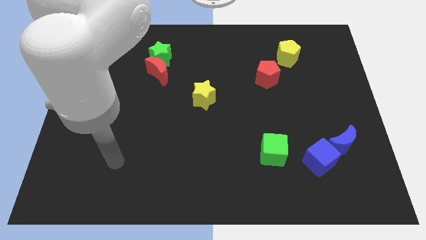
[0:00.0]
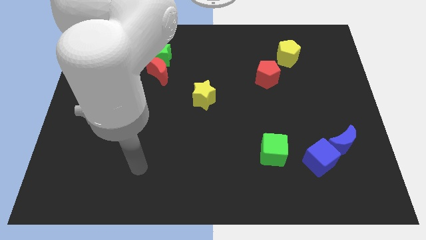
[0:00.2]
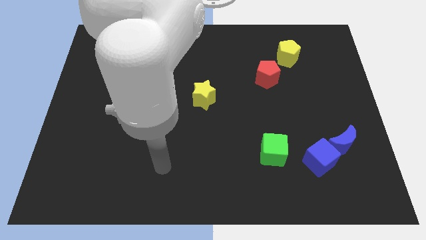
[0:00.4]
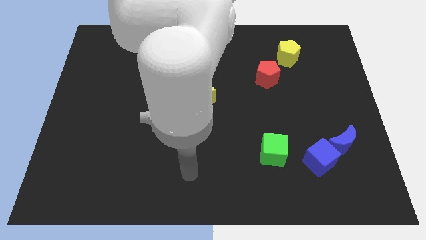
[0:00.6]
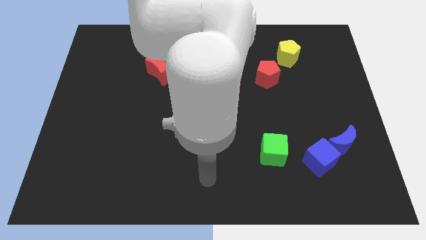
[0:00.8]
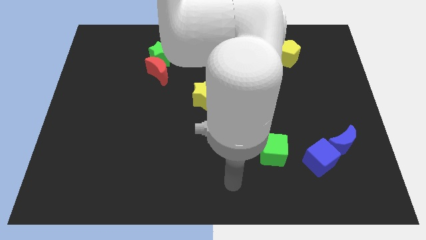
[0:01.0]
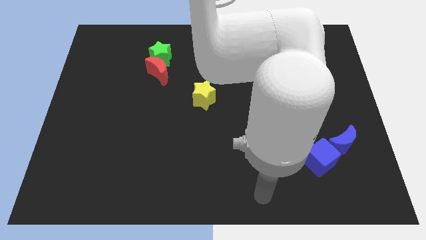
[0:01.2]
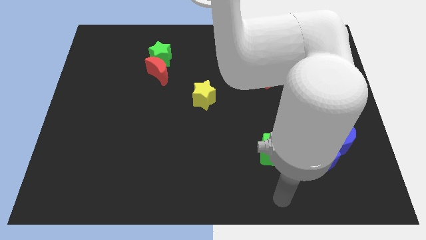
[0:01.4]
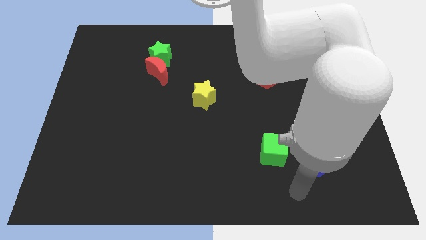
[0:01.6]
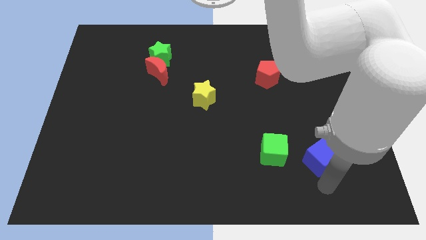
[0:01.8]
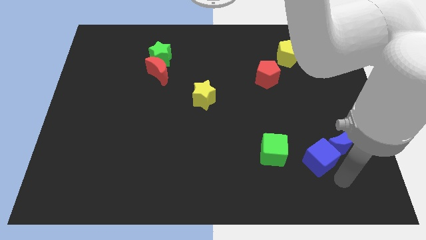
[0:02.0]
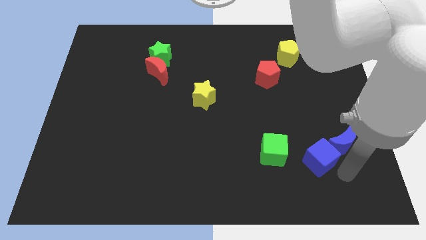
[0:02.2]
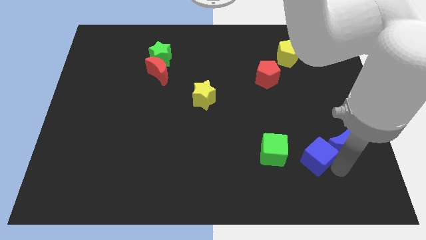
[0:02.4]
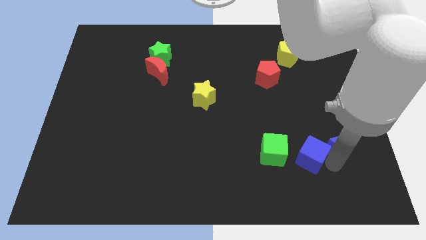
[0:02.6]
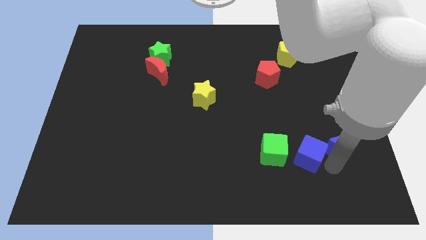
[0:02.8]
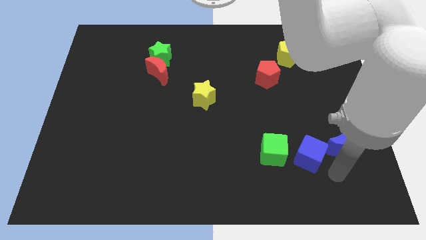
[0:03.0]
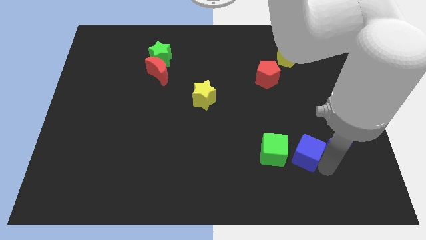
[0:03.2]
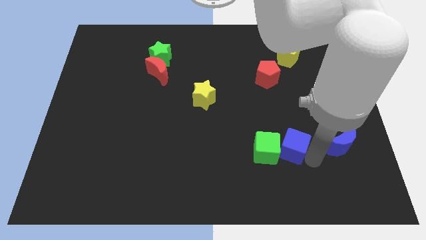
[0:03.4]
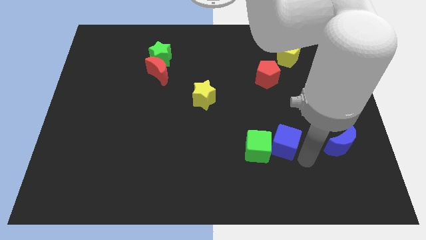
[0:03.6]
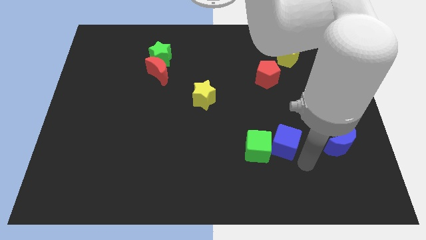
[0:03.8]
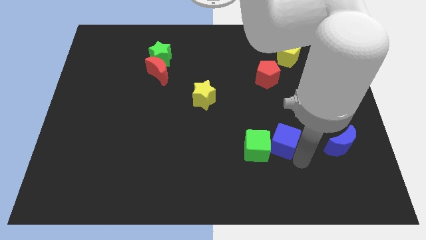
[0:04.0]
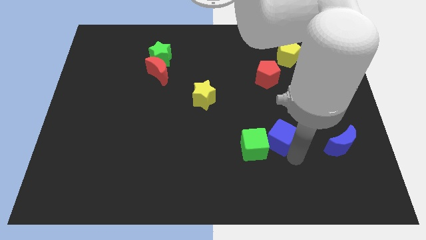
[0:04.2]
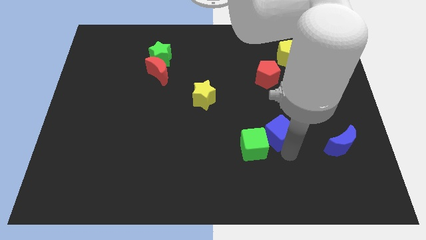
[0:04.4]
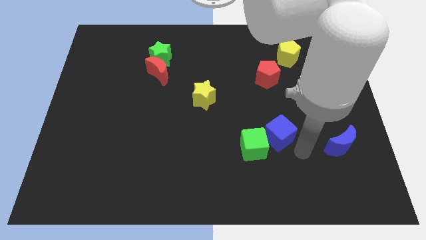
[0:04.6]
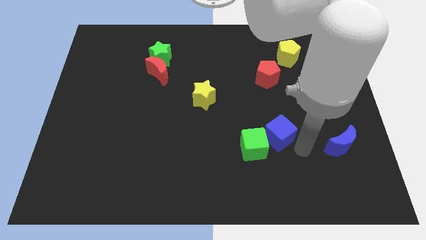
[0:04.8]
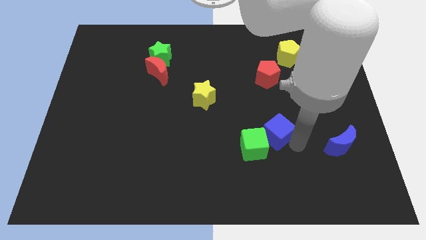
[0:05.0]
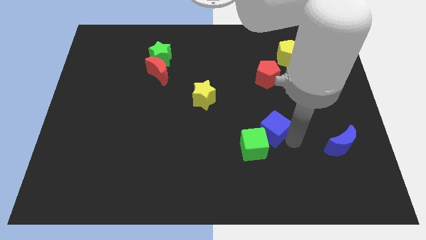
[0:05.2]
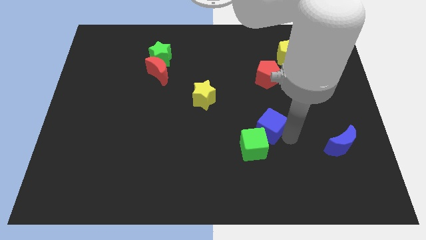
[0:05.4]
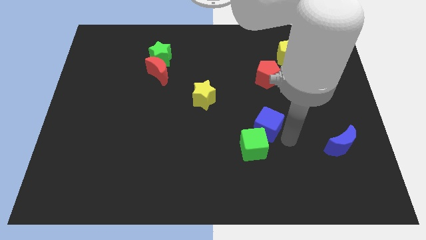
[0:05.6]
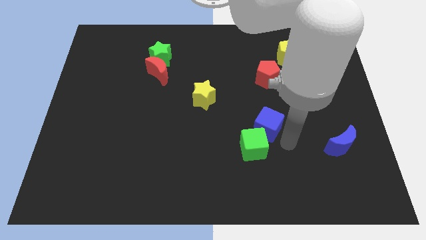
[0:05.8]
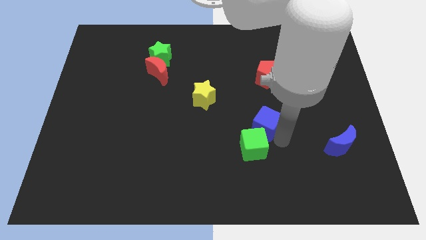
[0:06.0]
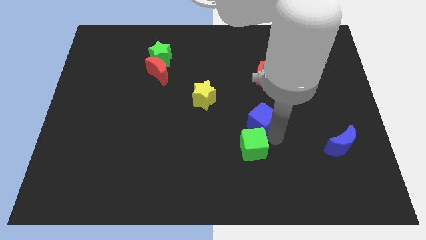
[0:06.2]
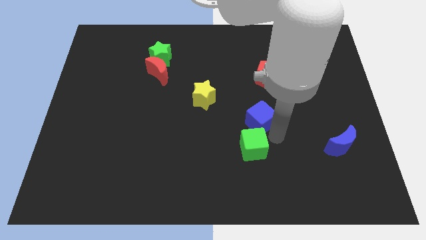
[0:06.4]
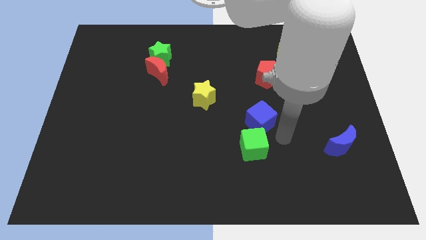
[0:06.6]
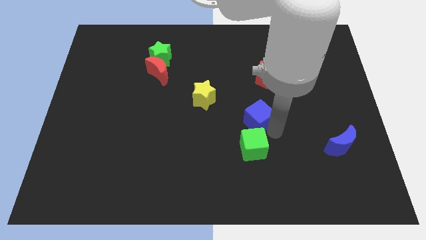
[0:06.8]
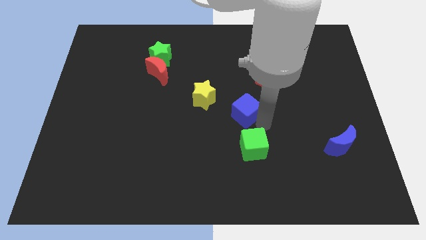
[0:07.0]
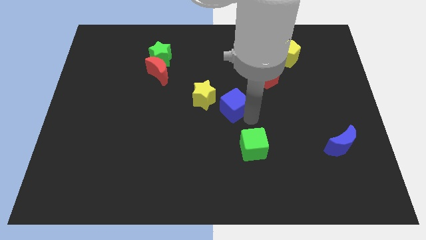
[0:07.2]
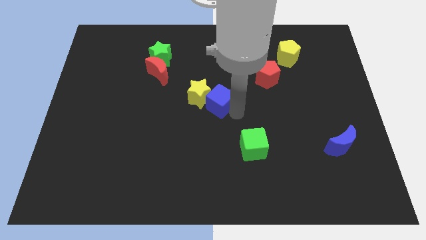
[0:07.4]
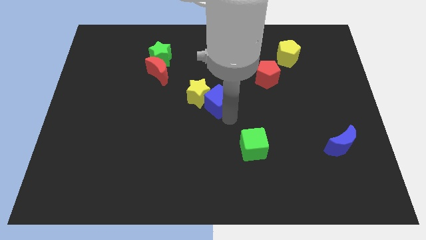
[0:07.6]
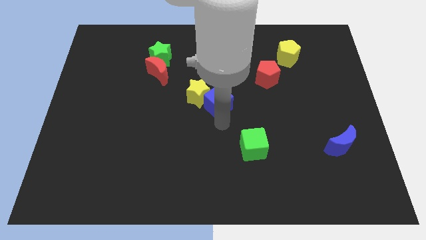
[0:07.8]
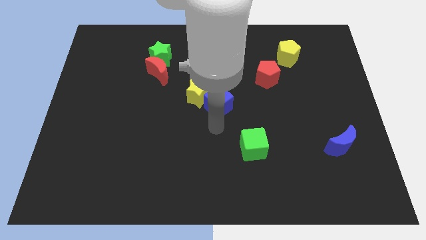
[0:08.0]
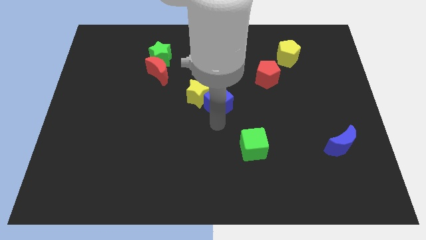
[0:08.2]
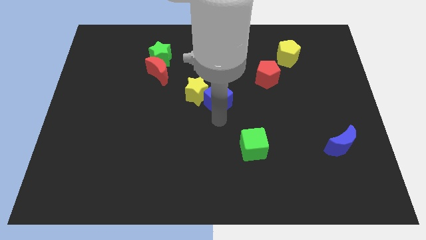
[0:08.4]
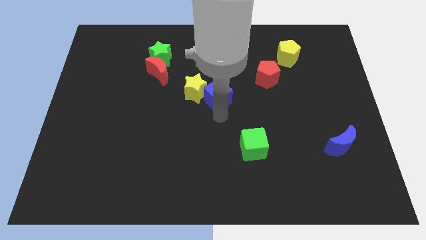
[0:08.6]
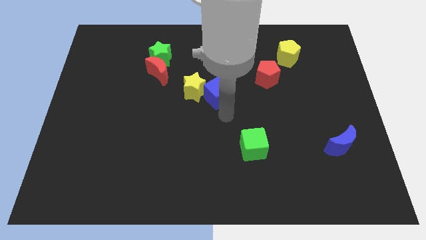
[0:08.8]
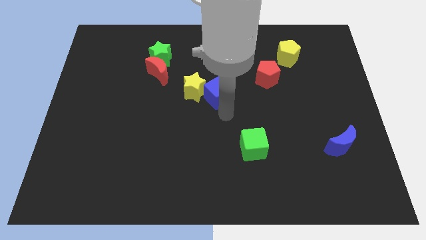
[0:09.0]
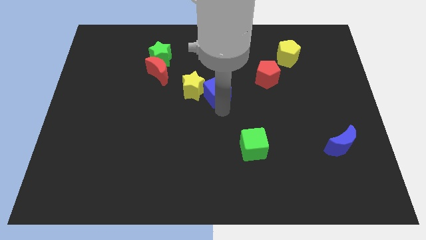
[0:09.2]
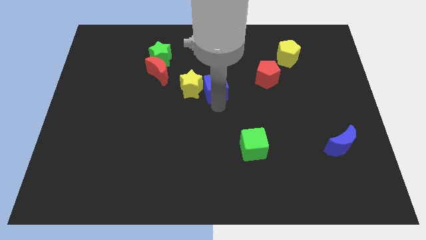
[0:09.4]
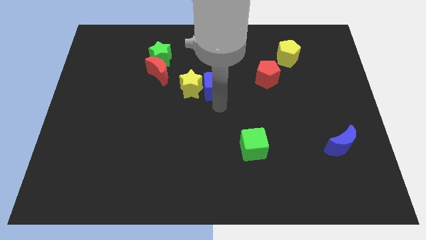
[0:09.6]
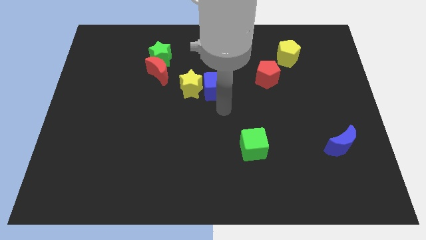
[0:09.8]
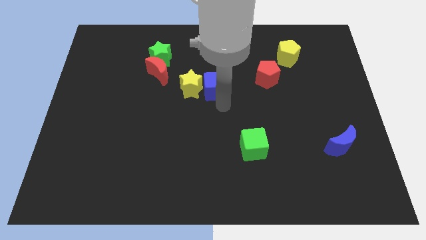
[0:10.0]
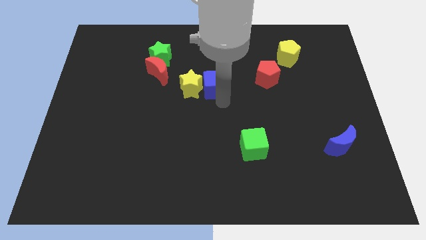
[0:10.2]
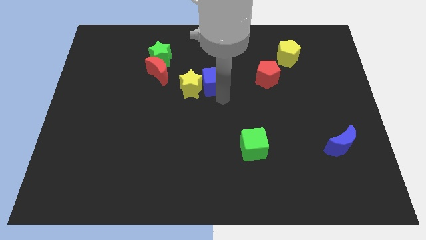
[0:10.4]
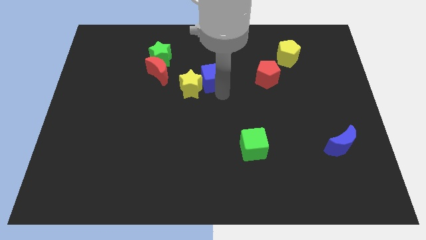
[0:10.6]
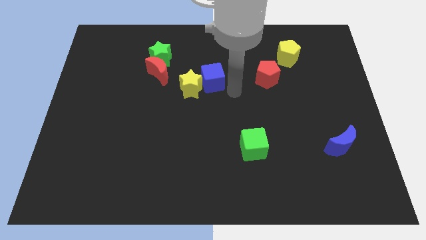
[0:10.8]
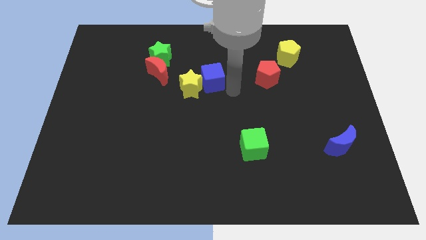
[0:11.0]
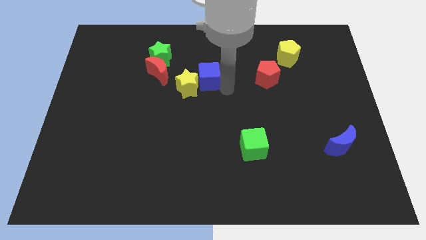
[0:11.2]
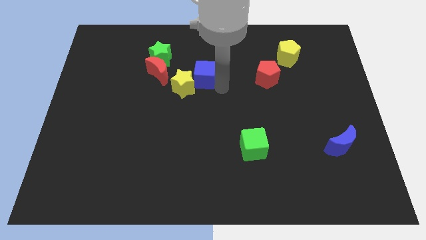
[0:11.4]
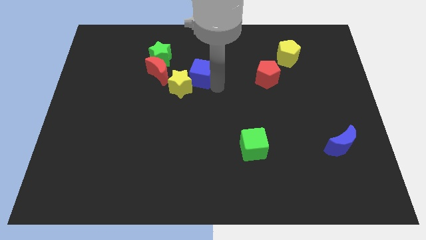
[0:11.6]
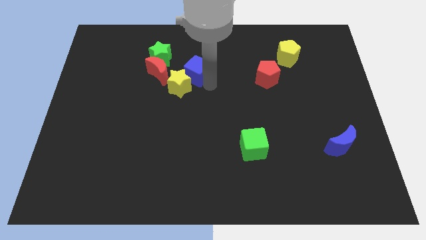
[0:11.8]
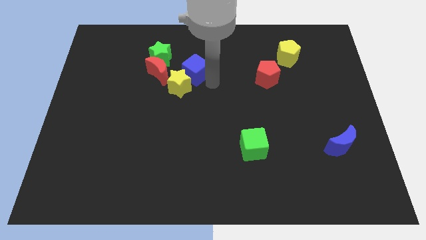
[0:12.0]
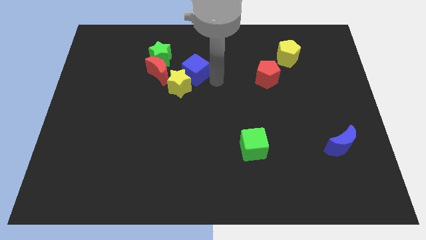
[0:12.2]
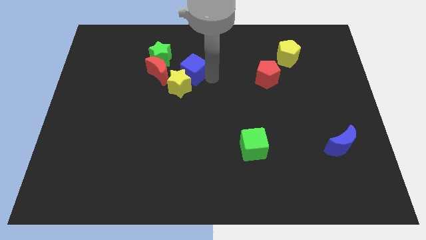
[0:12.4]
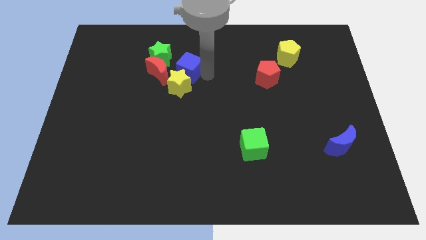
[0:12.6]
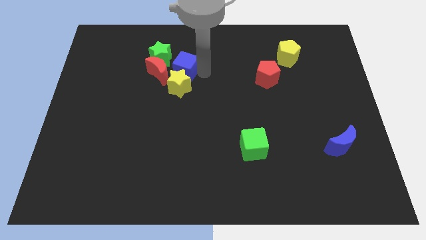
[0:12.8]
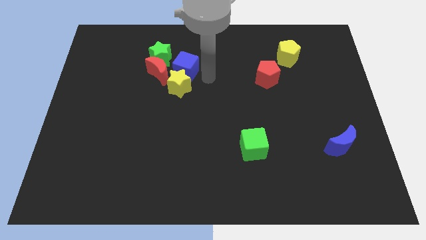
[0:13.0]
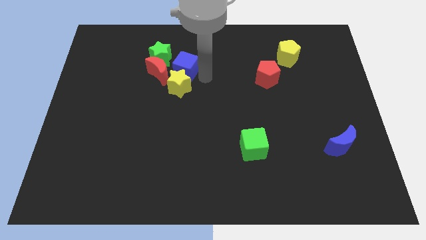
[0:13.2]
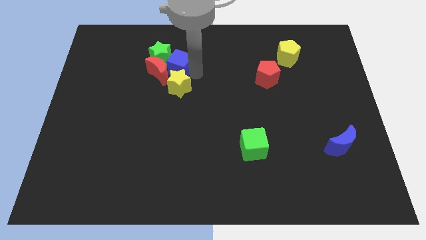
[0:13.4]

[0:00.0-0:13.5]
push the blue cube towards the green star

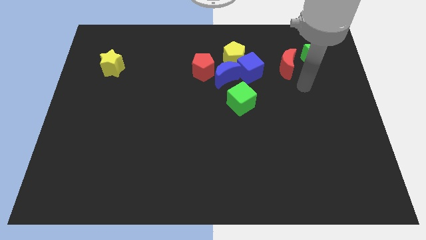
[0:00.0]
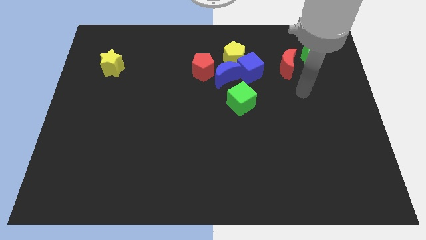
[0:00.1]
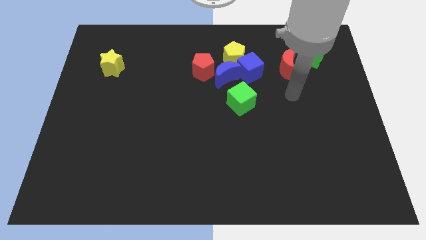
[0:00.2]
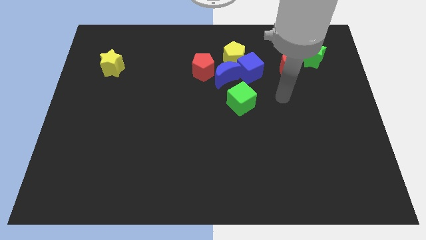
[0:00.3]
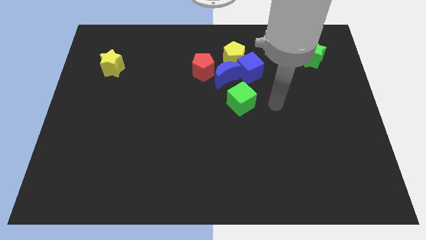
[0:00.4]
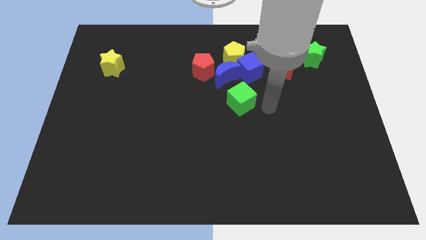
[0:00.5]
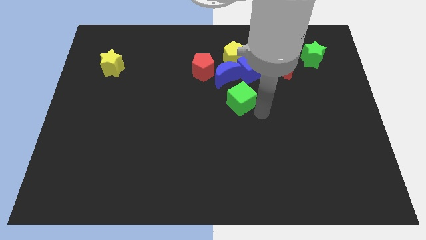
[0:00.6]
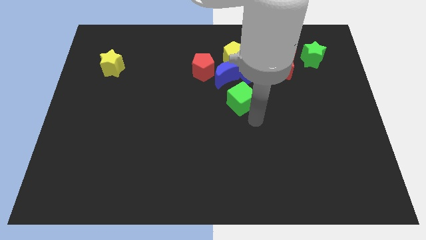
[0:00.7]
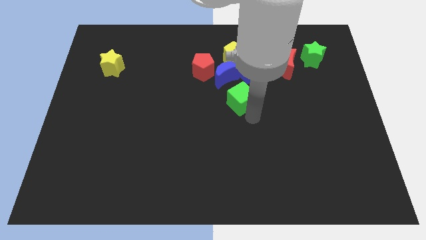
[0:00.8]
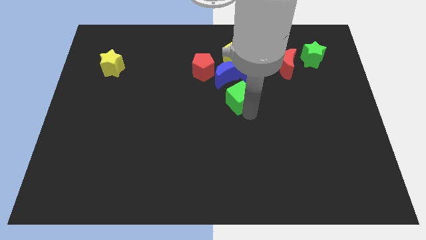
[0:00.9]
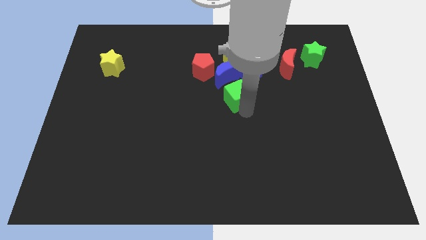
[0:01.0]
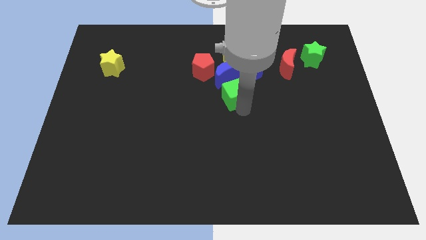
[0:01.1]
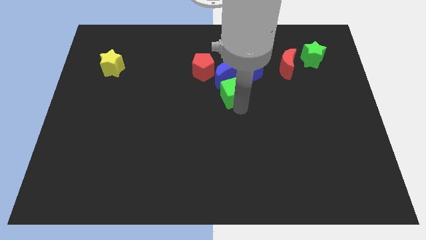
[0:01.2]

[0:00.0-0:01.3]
move the green cube to the blue moon
